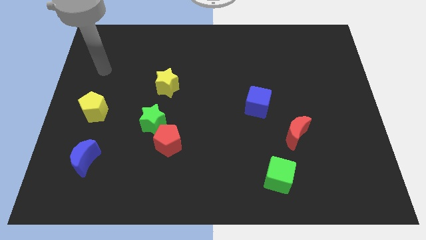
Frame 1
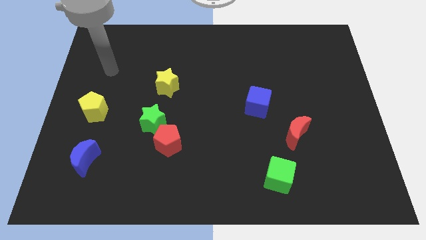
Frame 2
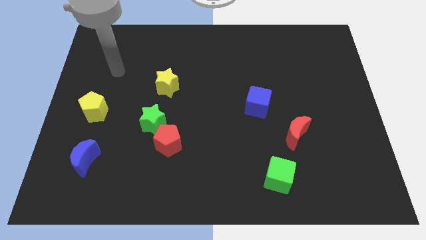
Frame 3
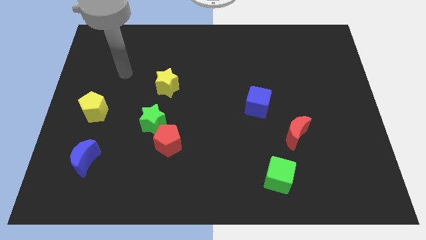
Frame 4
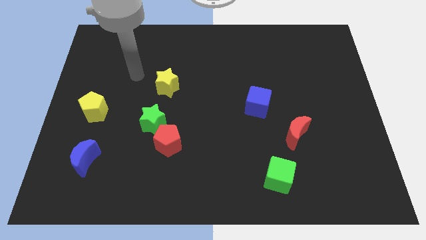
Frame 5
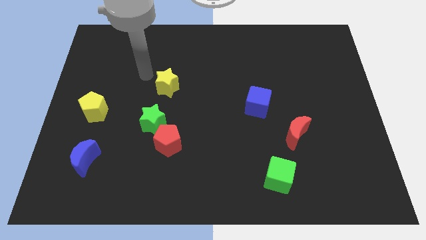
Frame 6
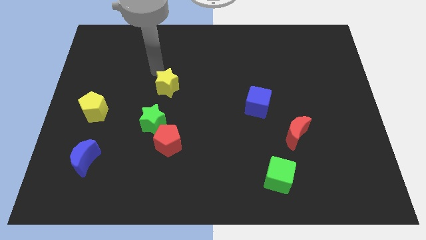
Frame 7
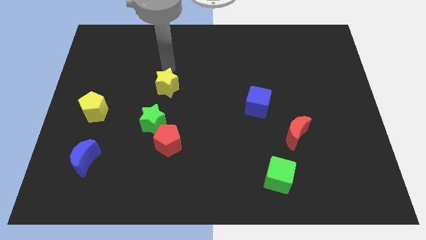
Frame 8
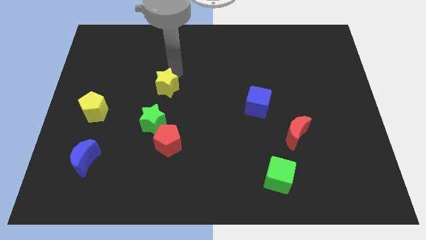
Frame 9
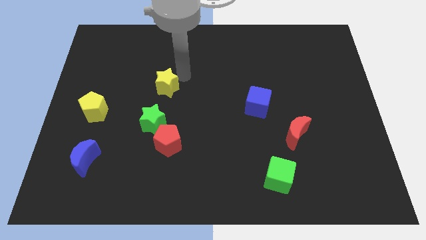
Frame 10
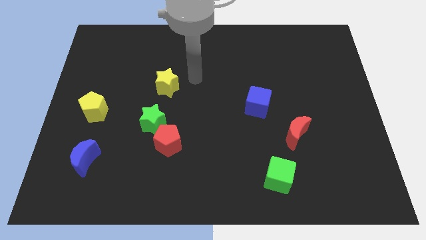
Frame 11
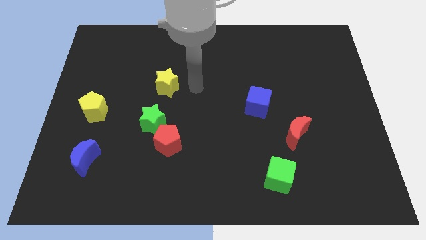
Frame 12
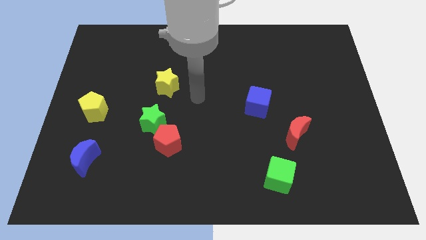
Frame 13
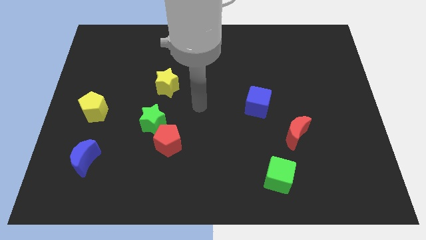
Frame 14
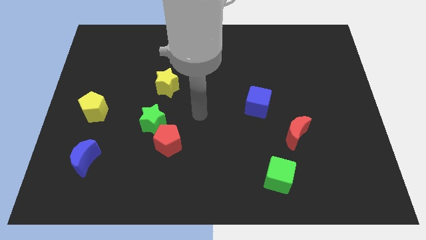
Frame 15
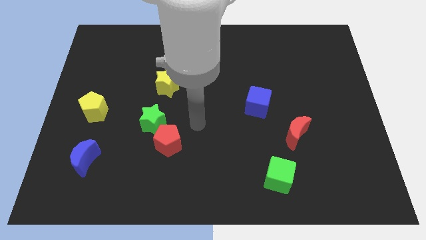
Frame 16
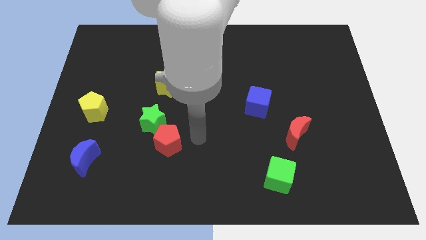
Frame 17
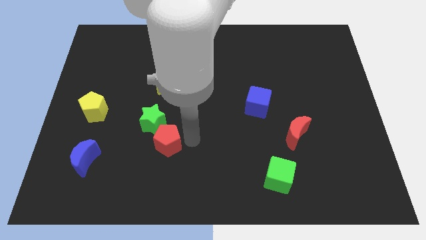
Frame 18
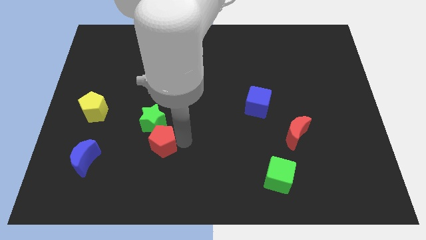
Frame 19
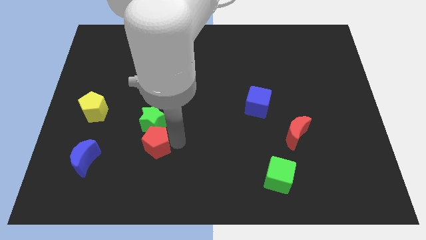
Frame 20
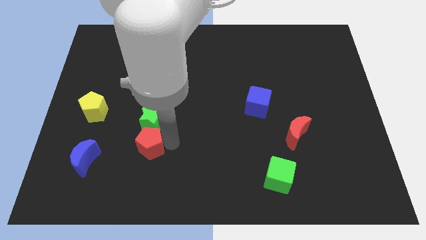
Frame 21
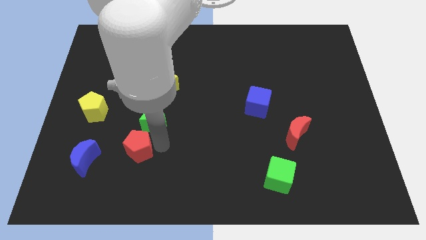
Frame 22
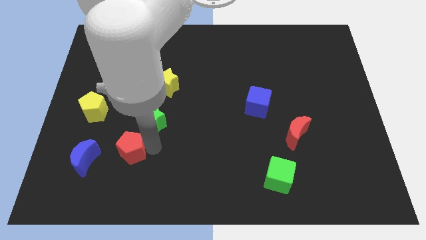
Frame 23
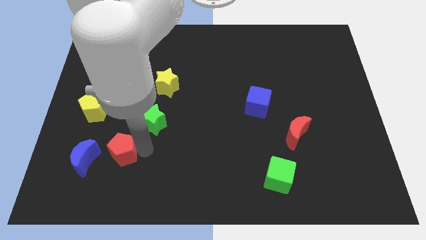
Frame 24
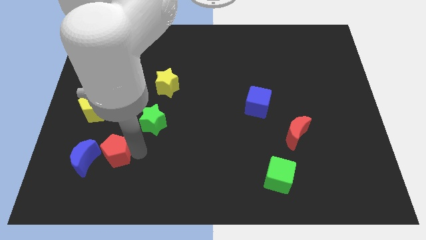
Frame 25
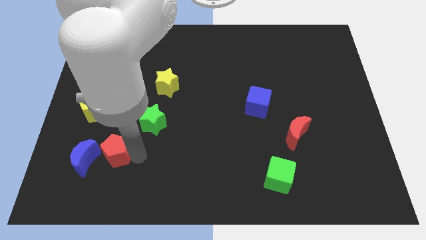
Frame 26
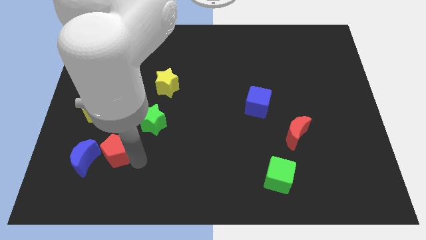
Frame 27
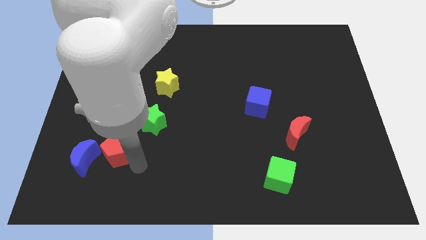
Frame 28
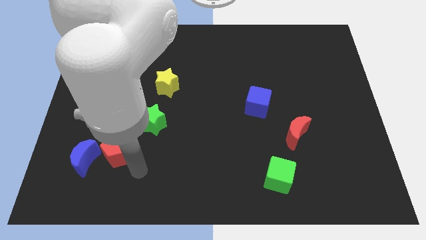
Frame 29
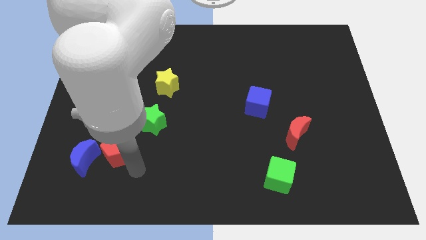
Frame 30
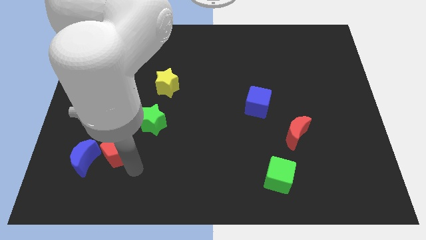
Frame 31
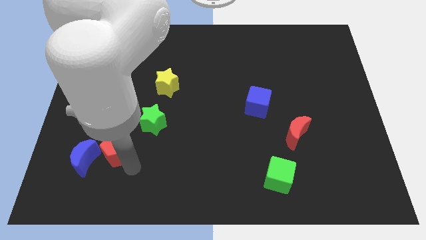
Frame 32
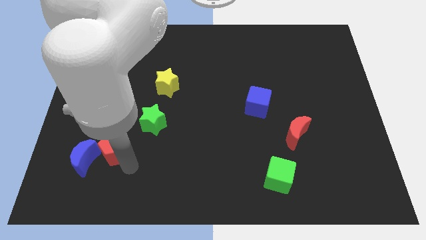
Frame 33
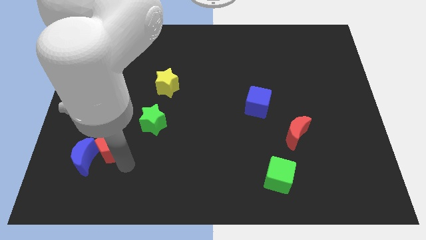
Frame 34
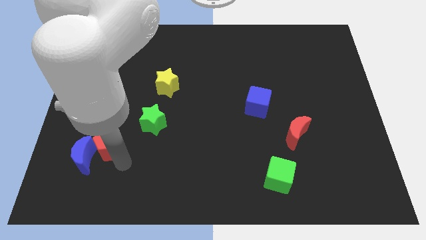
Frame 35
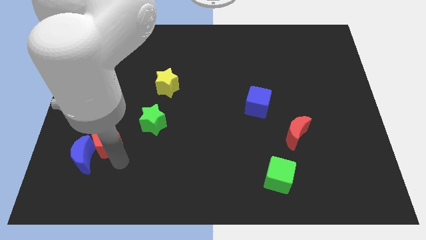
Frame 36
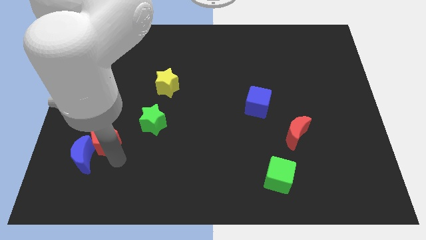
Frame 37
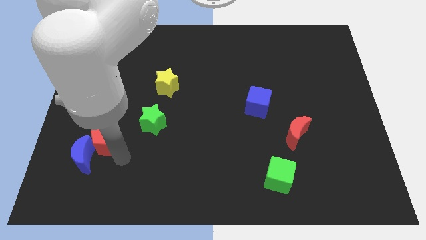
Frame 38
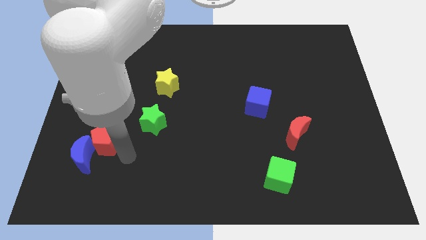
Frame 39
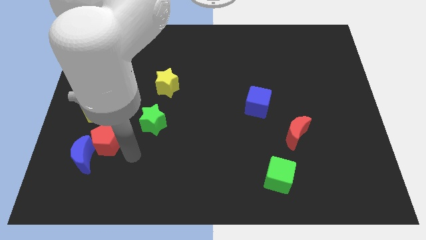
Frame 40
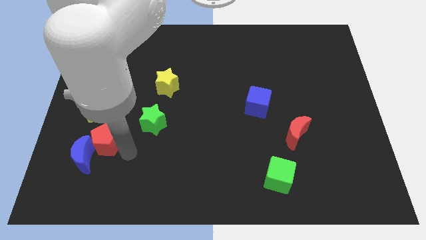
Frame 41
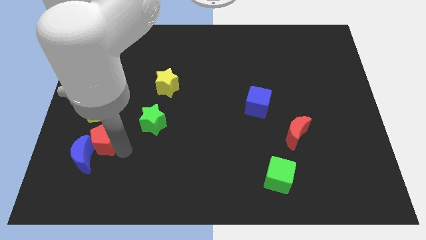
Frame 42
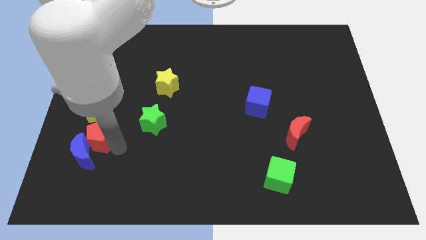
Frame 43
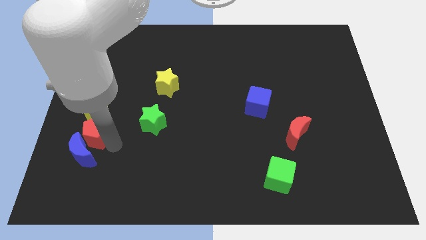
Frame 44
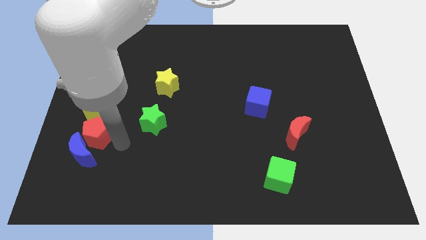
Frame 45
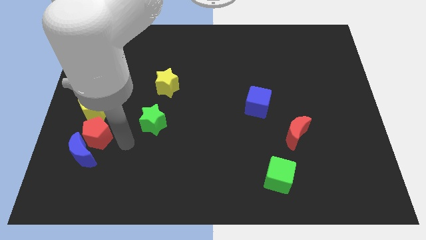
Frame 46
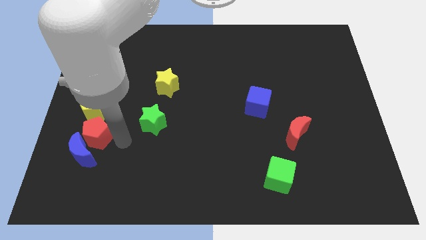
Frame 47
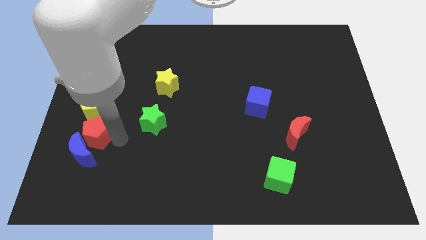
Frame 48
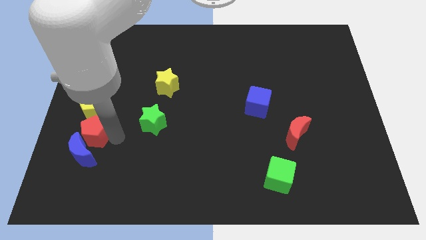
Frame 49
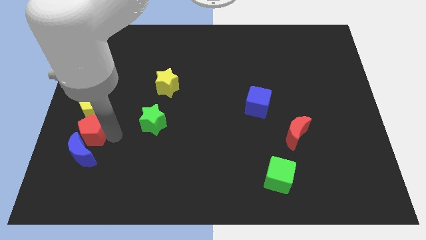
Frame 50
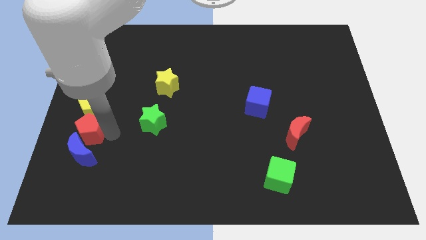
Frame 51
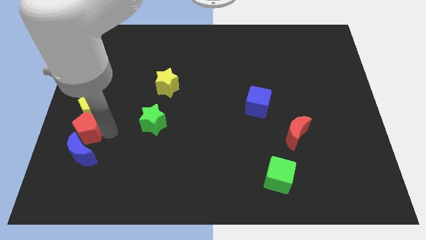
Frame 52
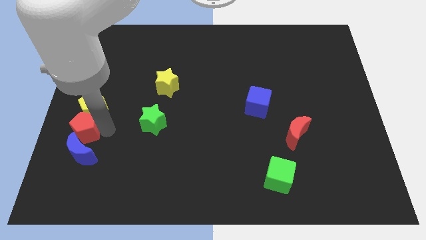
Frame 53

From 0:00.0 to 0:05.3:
push the red pentagon to the left side of the board
